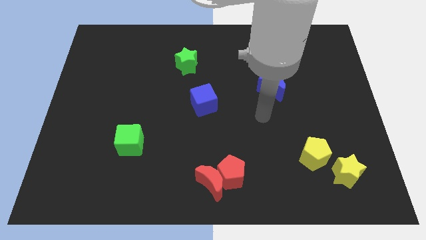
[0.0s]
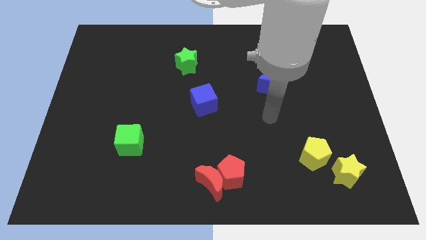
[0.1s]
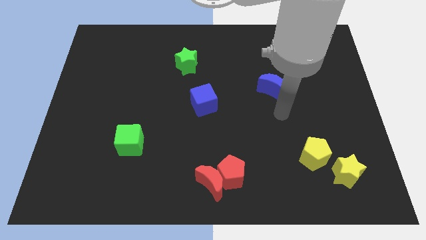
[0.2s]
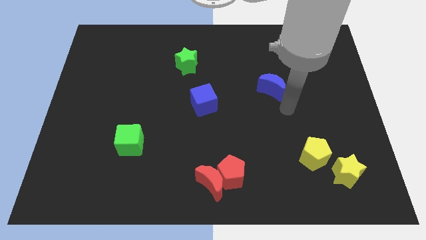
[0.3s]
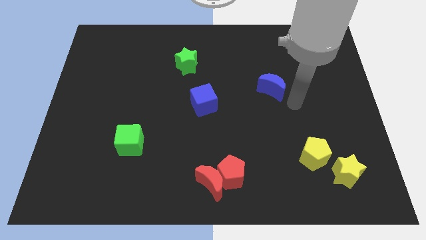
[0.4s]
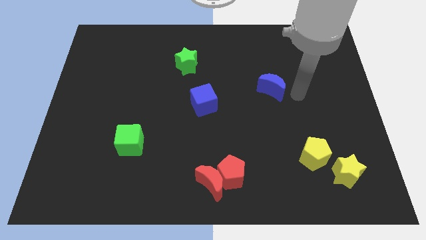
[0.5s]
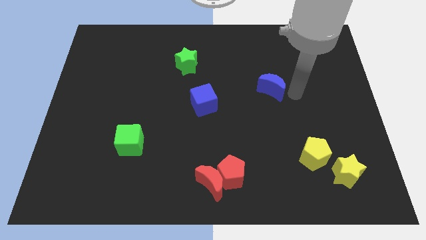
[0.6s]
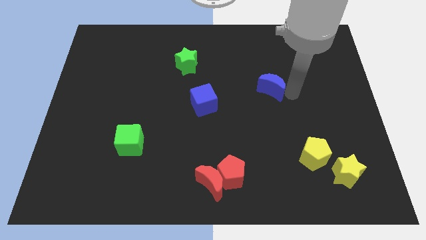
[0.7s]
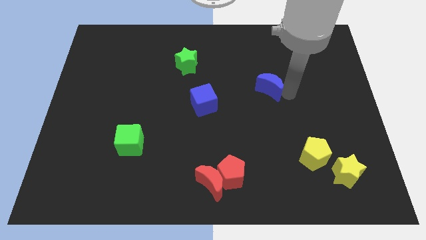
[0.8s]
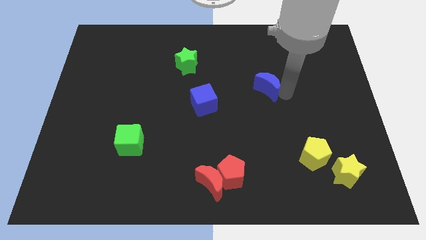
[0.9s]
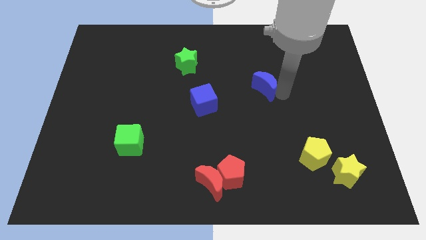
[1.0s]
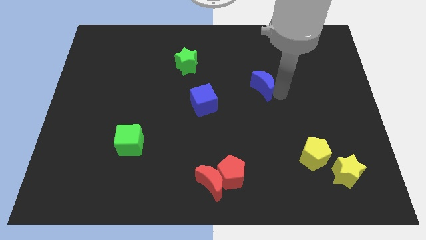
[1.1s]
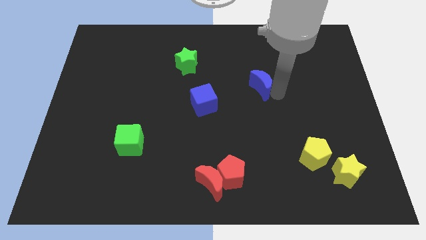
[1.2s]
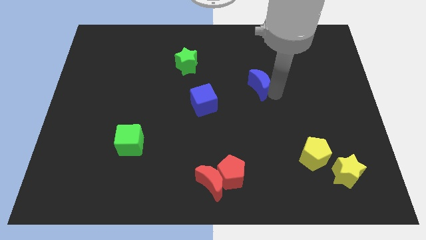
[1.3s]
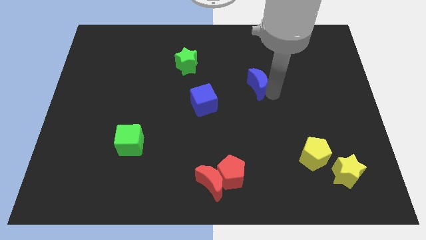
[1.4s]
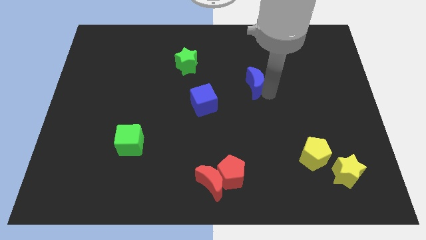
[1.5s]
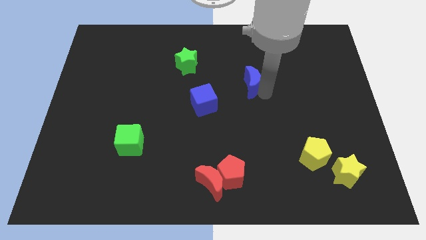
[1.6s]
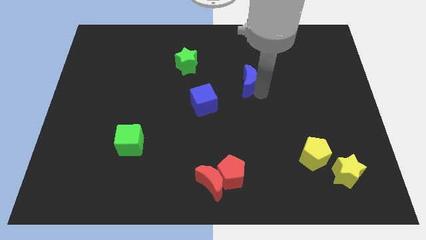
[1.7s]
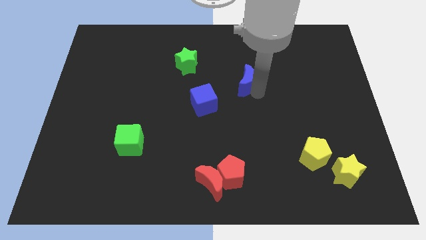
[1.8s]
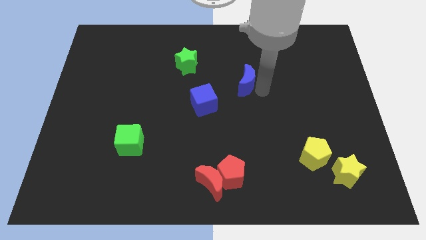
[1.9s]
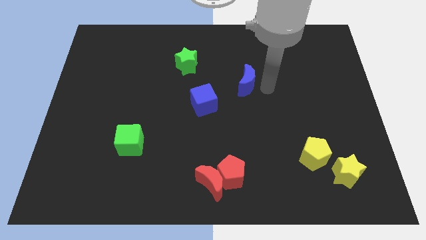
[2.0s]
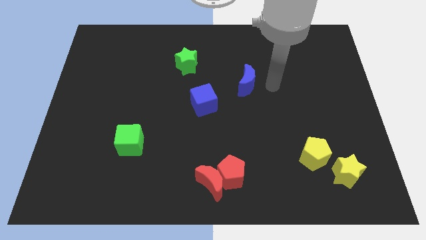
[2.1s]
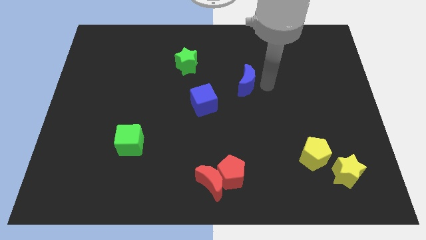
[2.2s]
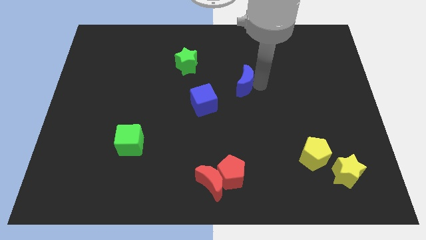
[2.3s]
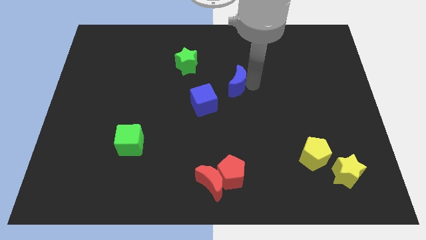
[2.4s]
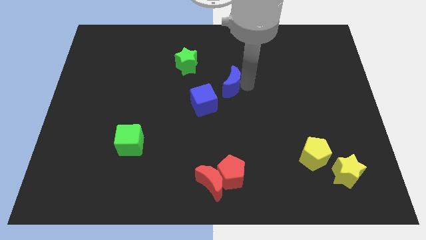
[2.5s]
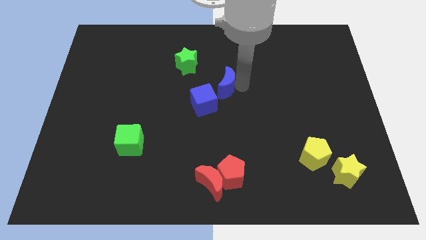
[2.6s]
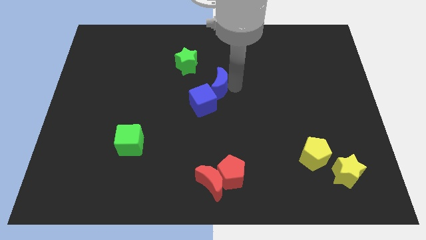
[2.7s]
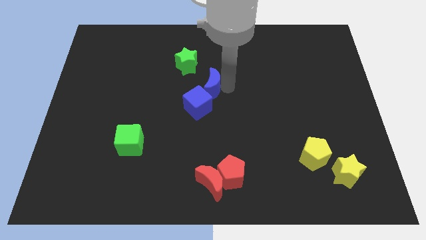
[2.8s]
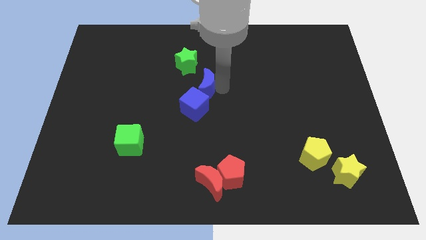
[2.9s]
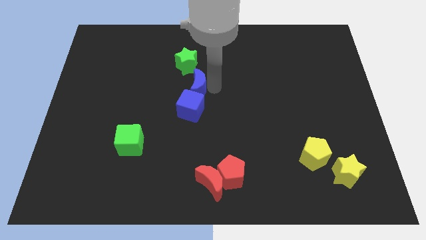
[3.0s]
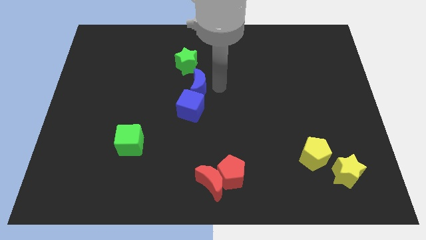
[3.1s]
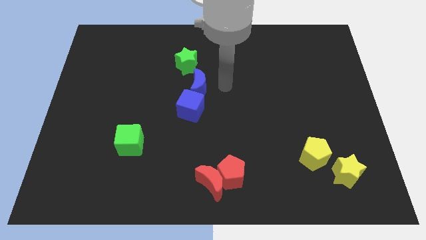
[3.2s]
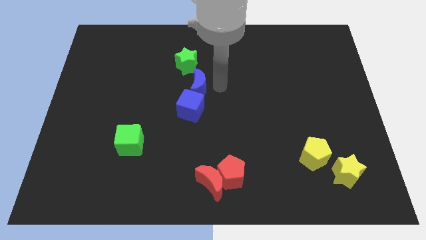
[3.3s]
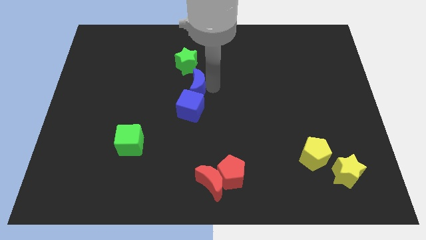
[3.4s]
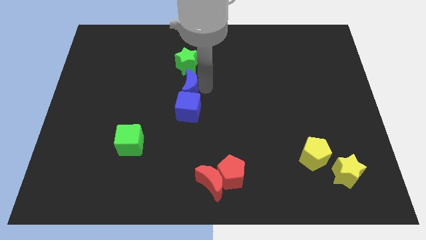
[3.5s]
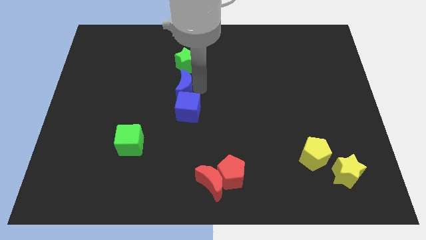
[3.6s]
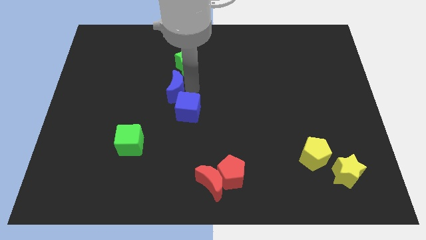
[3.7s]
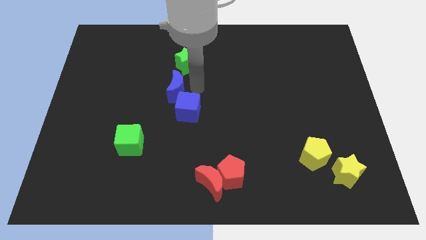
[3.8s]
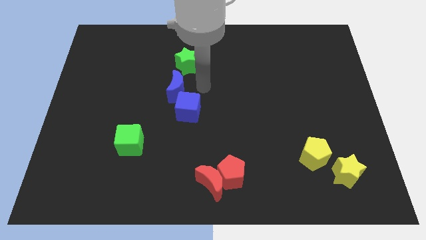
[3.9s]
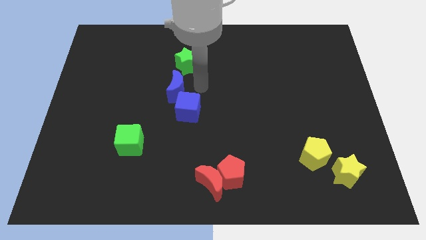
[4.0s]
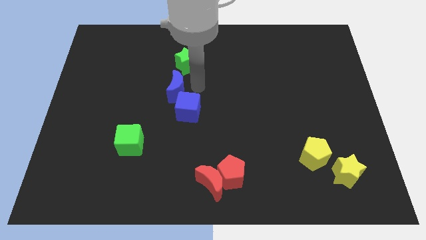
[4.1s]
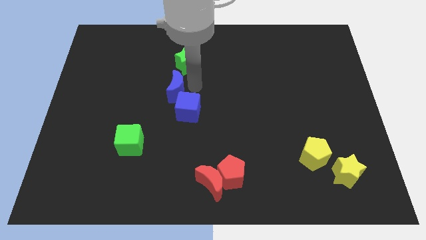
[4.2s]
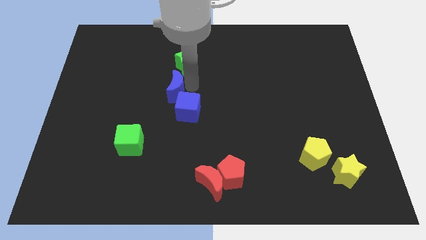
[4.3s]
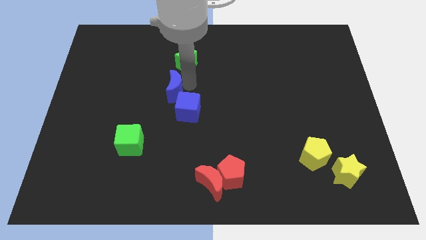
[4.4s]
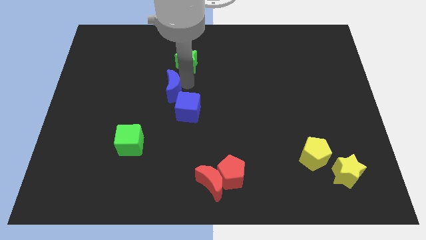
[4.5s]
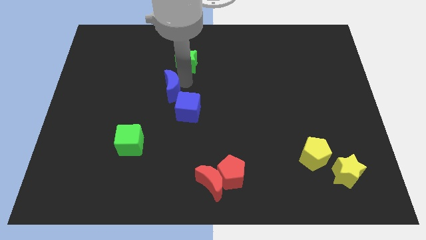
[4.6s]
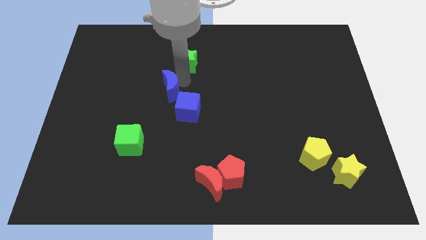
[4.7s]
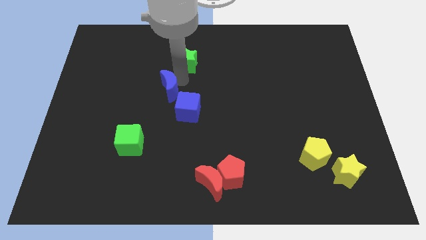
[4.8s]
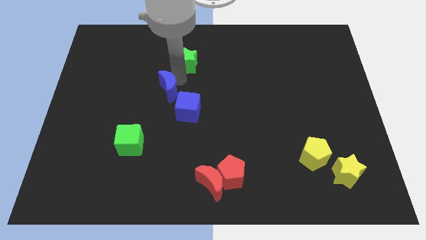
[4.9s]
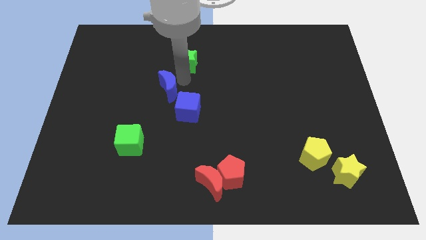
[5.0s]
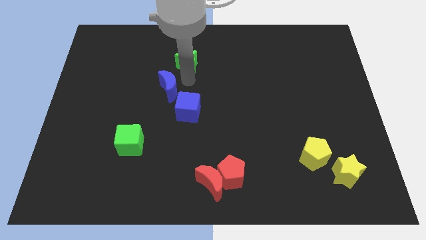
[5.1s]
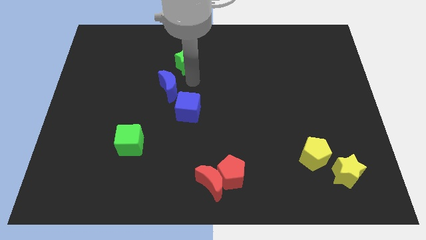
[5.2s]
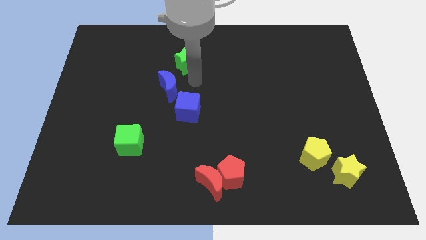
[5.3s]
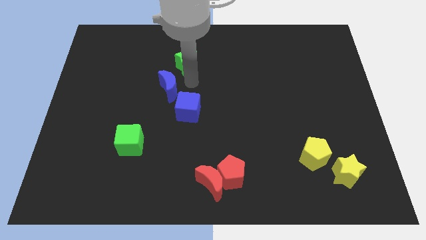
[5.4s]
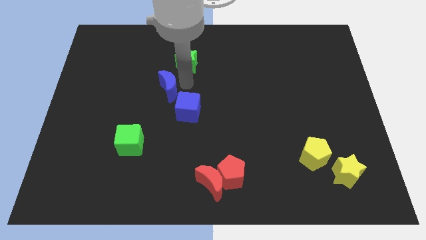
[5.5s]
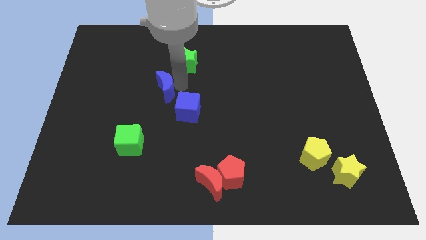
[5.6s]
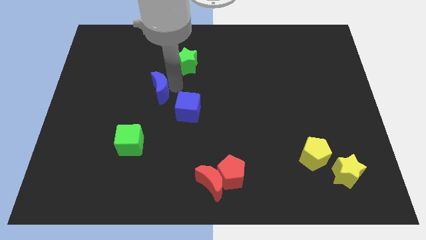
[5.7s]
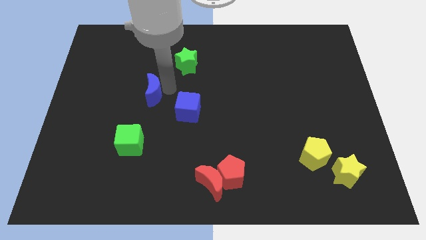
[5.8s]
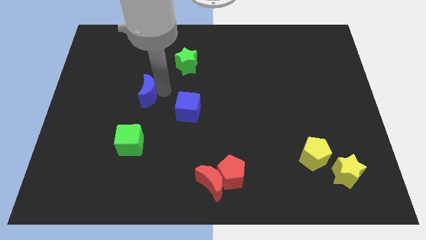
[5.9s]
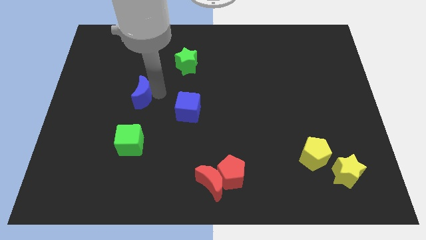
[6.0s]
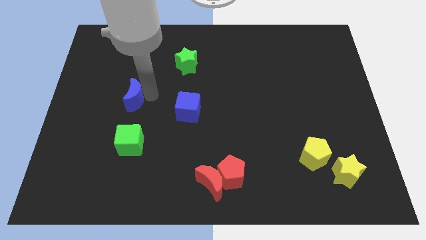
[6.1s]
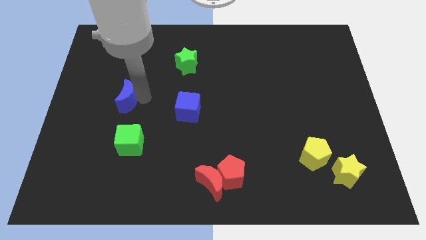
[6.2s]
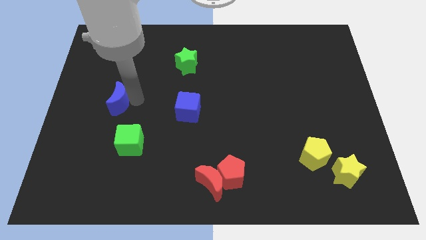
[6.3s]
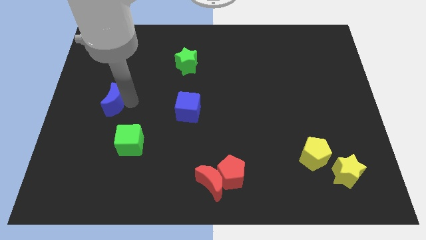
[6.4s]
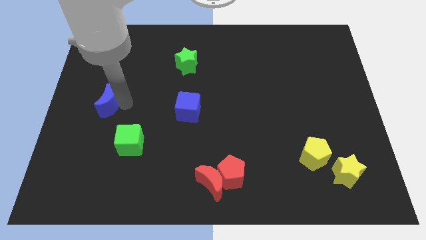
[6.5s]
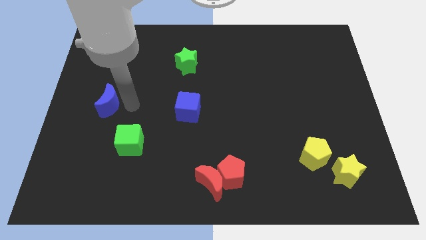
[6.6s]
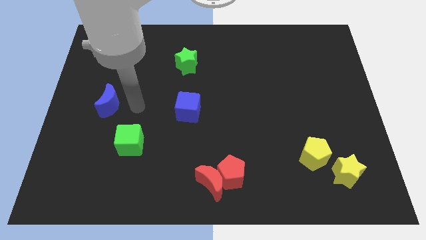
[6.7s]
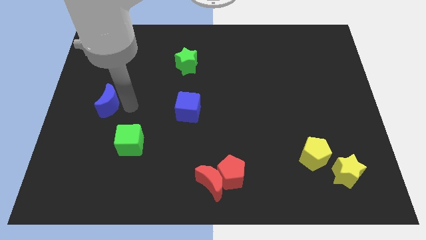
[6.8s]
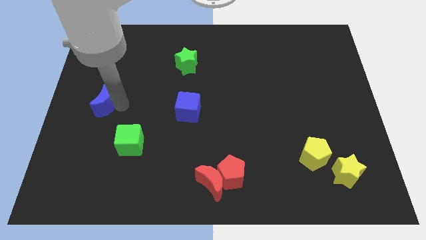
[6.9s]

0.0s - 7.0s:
put the blue moon to the left side of the board
